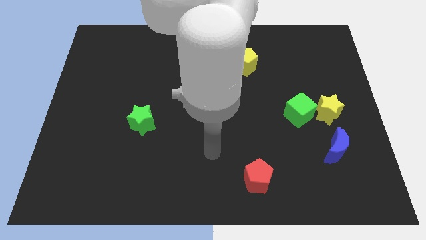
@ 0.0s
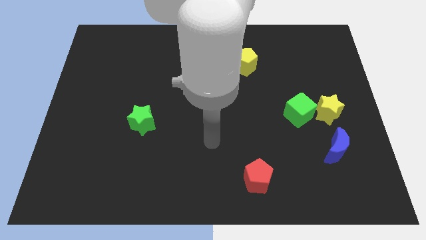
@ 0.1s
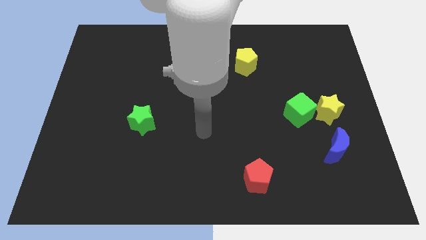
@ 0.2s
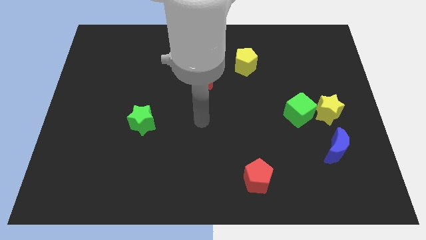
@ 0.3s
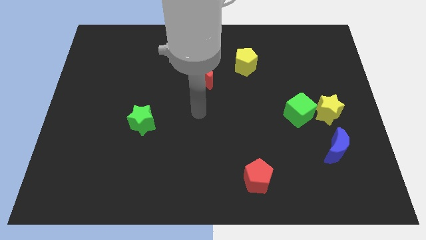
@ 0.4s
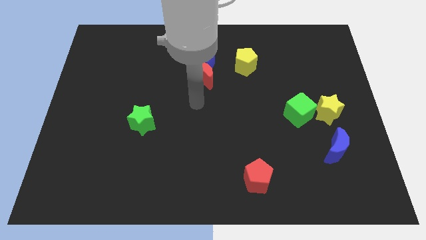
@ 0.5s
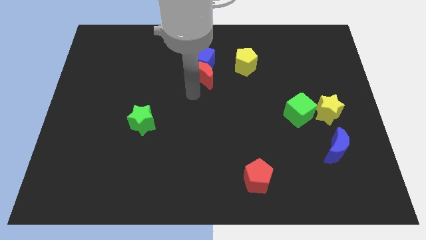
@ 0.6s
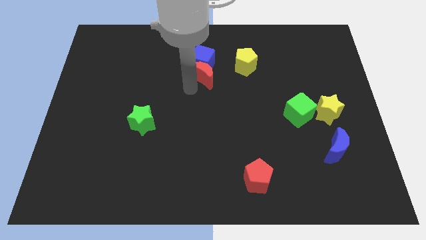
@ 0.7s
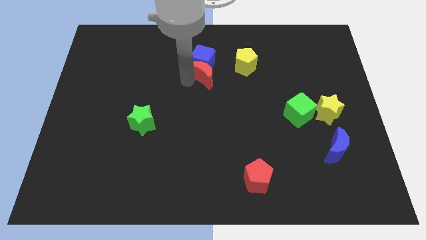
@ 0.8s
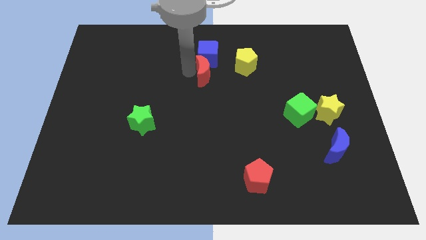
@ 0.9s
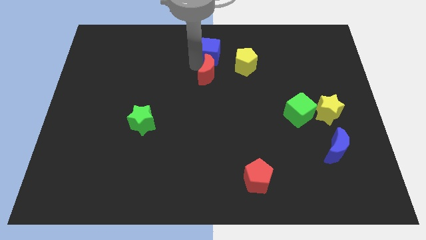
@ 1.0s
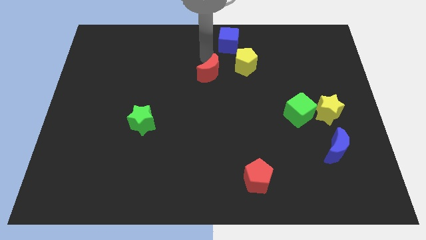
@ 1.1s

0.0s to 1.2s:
pull the red moon apart from the blue cube

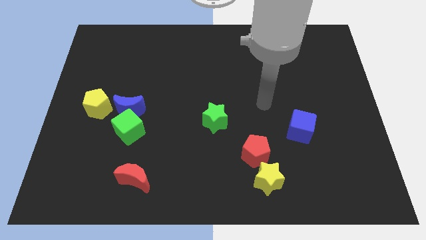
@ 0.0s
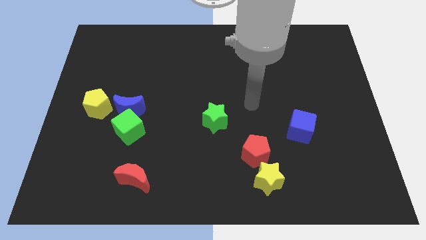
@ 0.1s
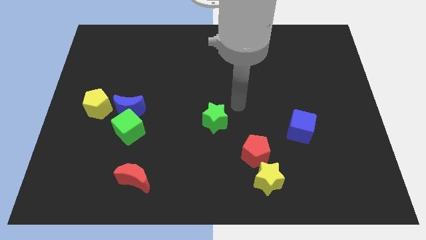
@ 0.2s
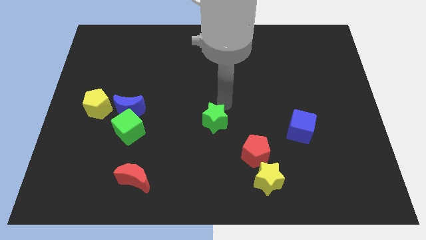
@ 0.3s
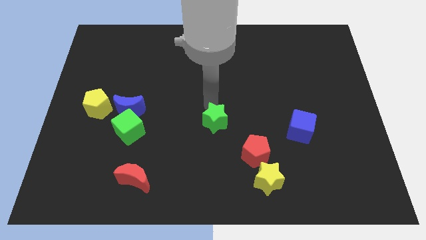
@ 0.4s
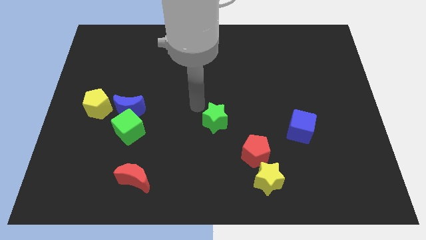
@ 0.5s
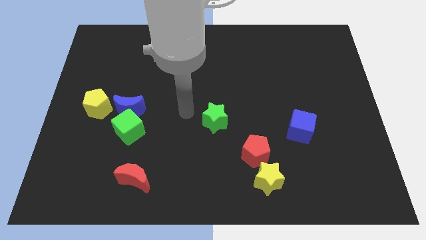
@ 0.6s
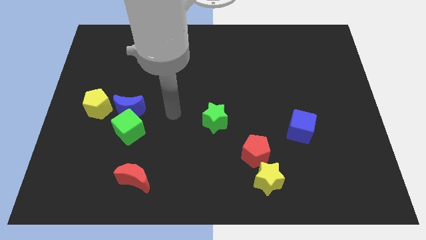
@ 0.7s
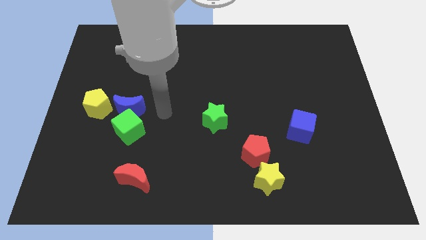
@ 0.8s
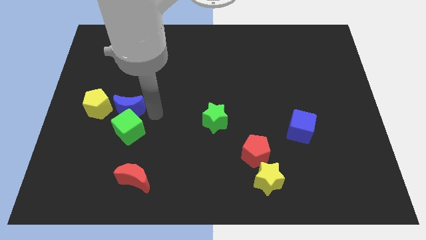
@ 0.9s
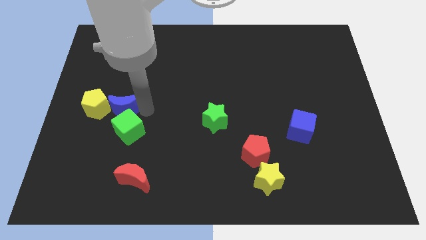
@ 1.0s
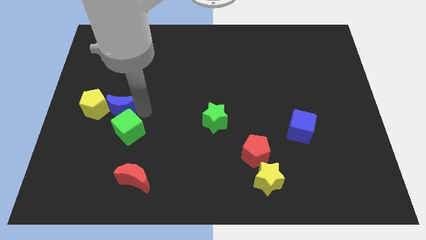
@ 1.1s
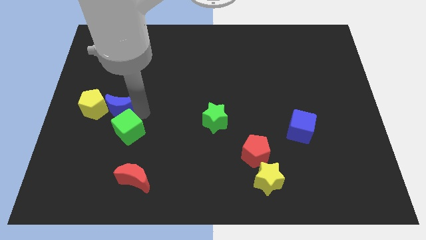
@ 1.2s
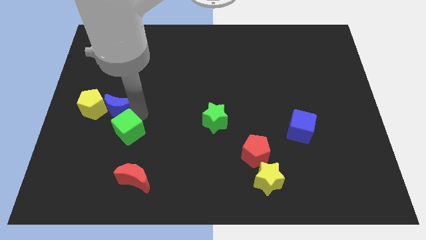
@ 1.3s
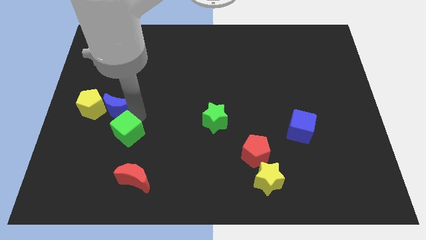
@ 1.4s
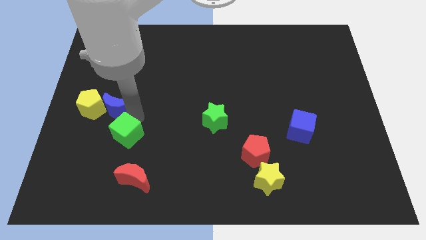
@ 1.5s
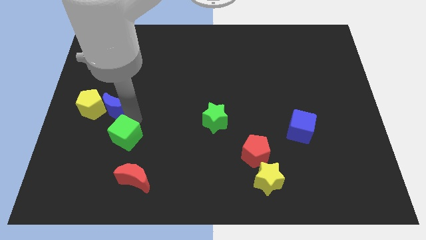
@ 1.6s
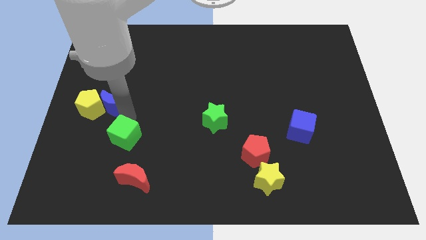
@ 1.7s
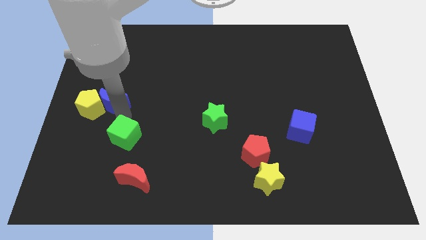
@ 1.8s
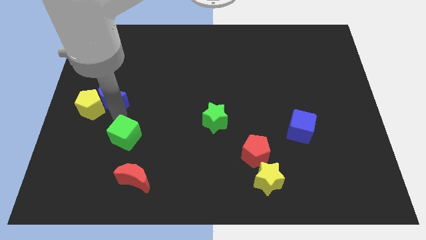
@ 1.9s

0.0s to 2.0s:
move the green cube away from the blue moon

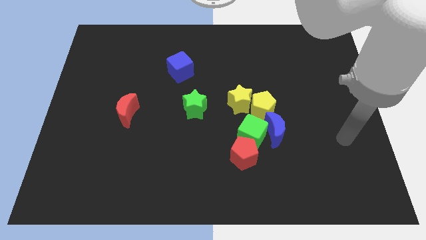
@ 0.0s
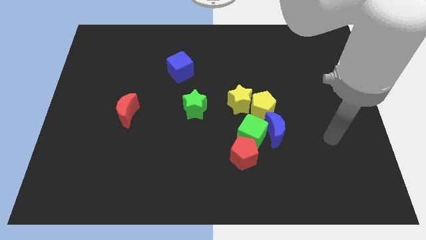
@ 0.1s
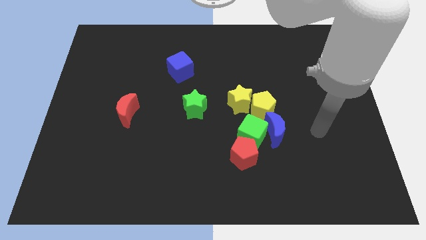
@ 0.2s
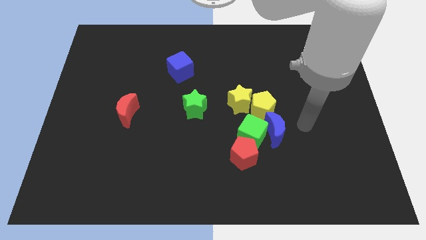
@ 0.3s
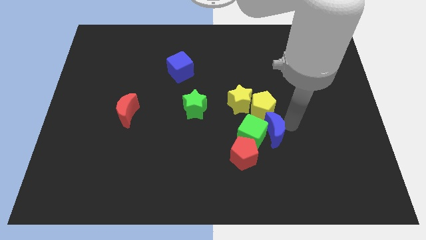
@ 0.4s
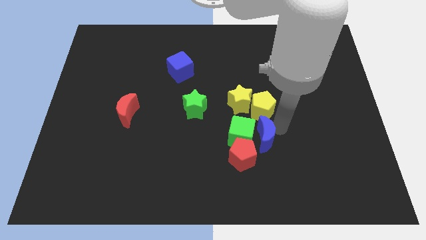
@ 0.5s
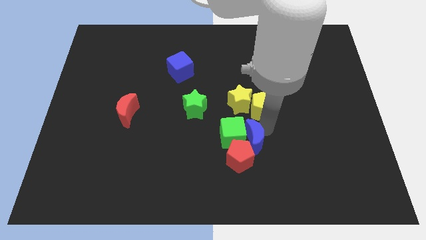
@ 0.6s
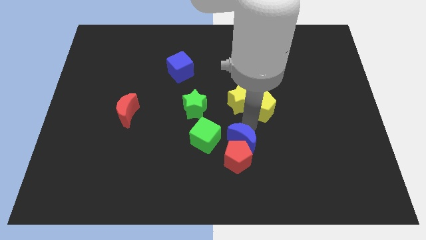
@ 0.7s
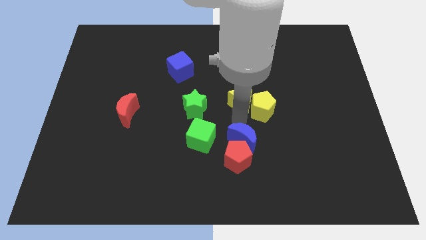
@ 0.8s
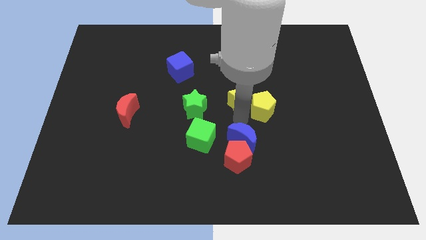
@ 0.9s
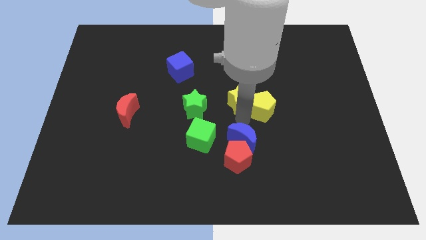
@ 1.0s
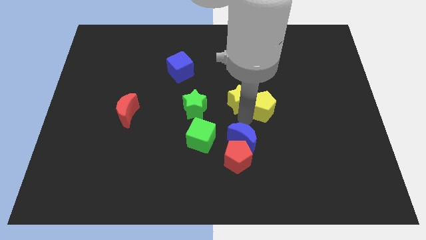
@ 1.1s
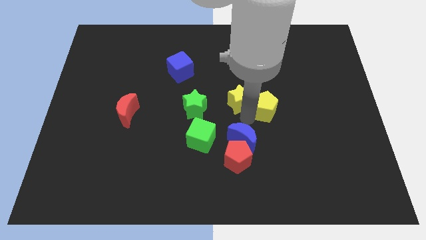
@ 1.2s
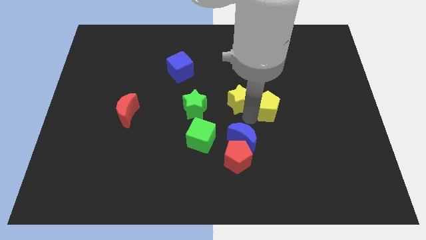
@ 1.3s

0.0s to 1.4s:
pull the yellow pentagon apart from the group

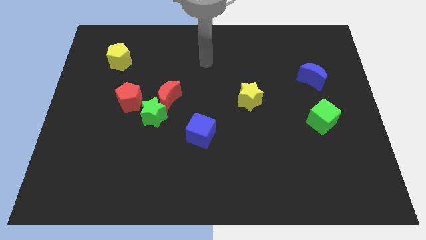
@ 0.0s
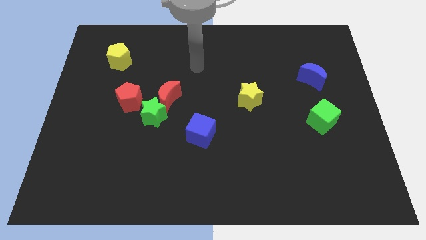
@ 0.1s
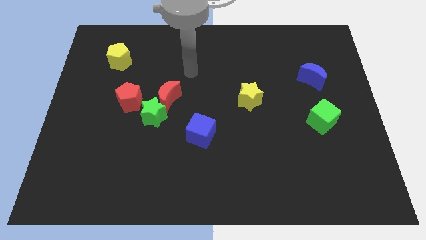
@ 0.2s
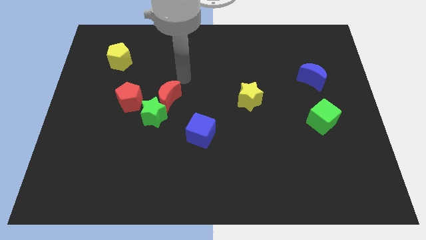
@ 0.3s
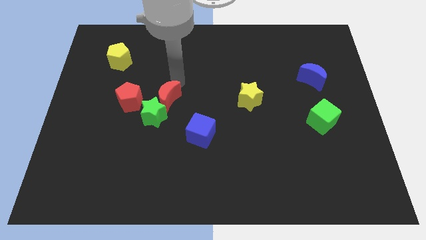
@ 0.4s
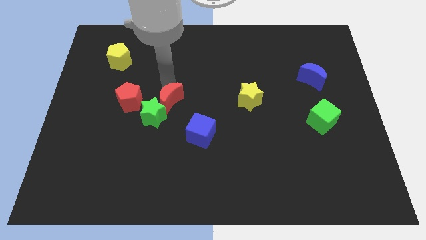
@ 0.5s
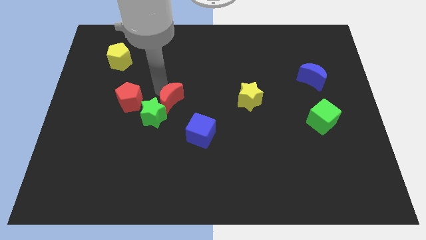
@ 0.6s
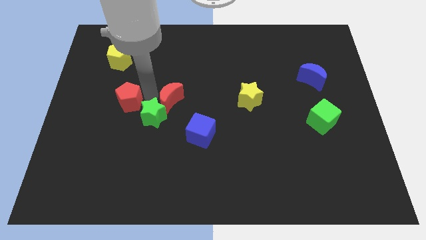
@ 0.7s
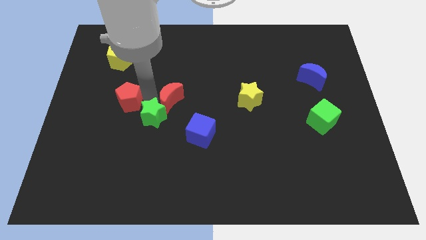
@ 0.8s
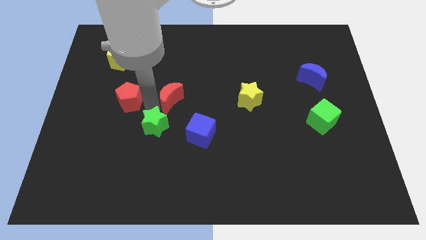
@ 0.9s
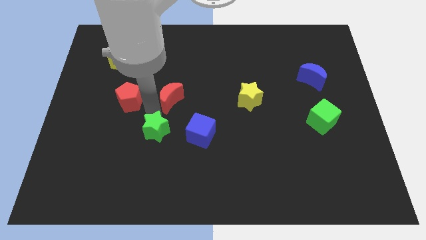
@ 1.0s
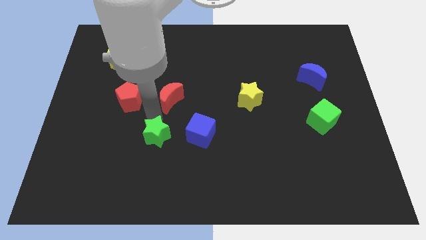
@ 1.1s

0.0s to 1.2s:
separate the green star from the red moon and red pentagon

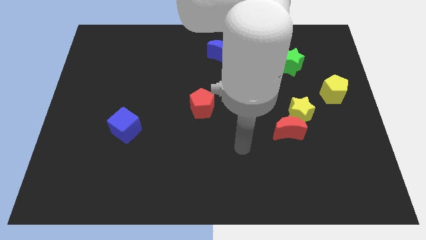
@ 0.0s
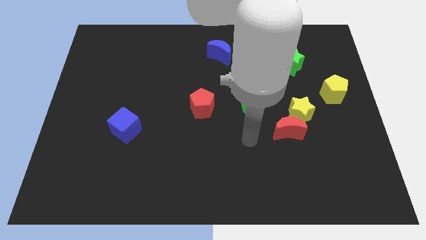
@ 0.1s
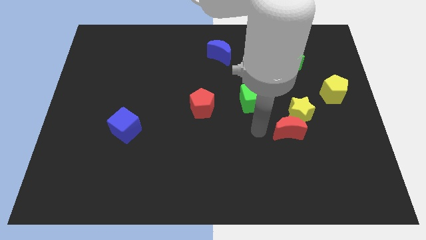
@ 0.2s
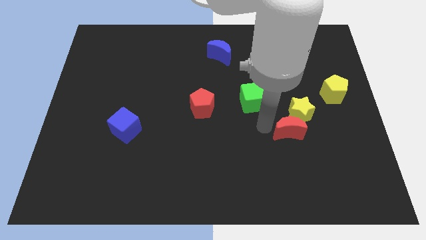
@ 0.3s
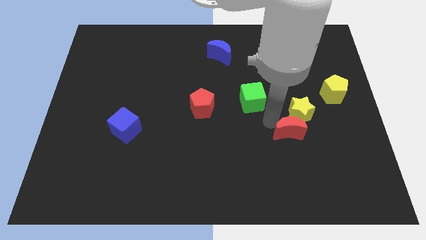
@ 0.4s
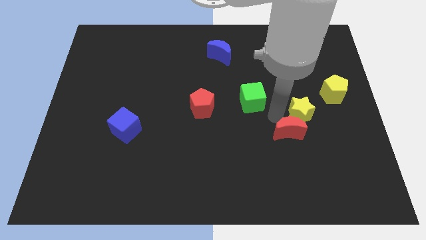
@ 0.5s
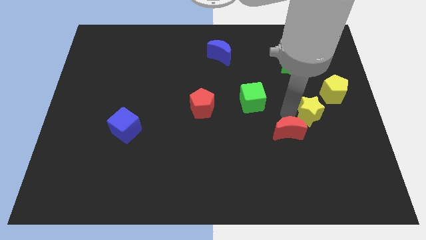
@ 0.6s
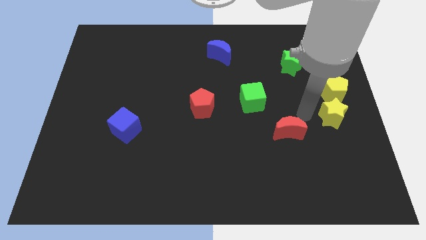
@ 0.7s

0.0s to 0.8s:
separate the red moon from the yellow star

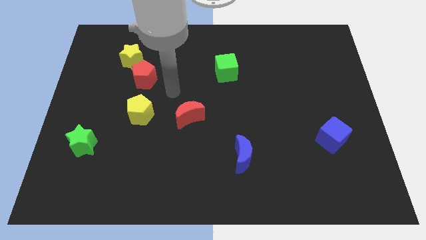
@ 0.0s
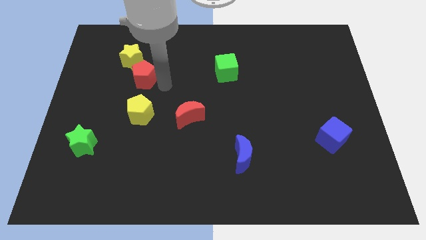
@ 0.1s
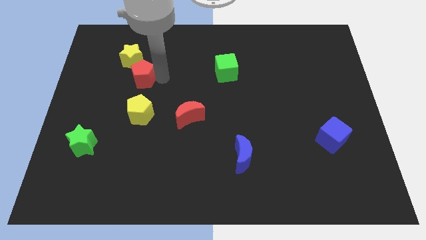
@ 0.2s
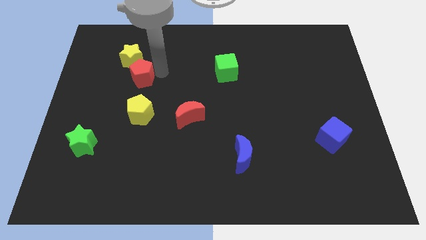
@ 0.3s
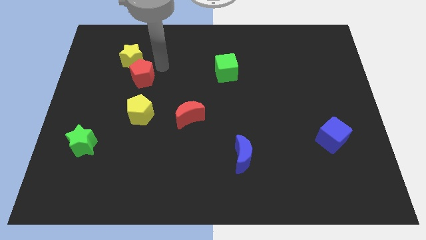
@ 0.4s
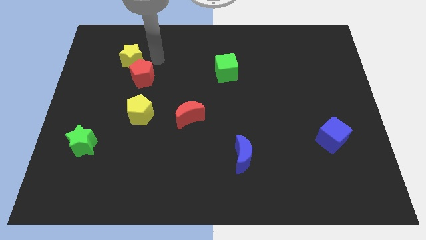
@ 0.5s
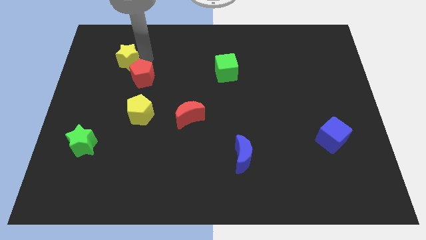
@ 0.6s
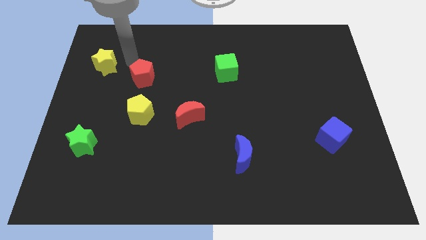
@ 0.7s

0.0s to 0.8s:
separate the red pentagon from the yellow star

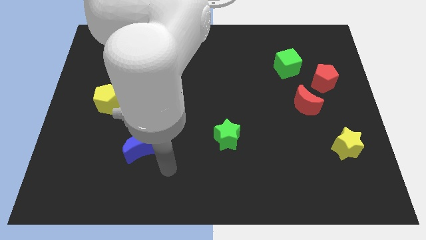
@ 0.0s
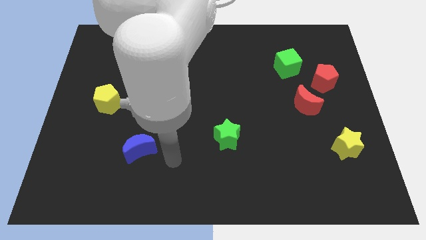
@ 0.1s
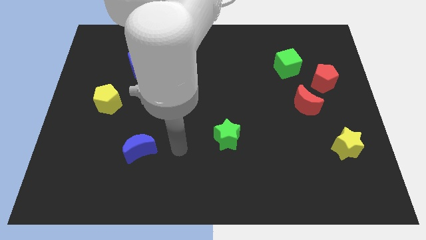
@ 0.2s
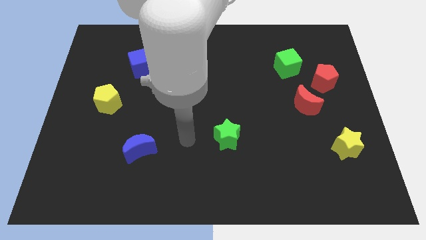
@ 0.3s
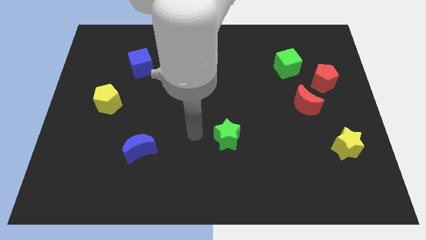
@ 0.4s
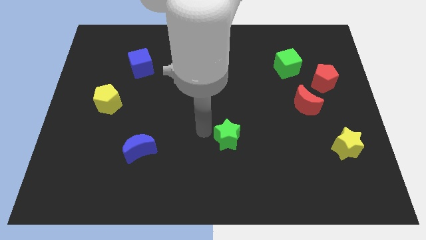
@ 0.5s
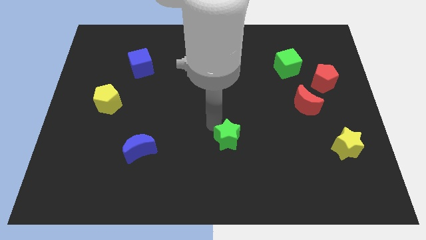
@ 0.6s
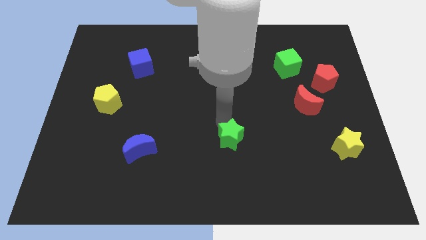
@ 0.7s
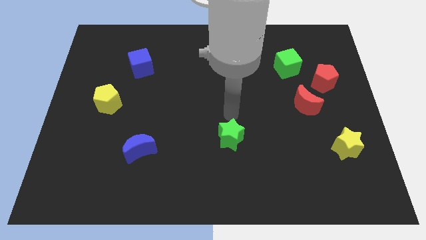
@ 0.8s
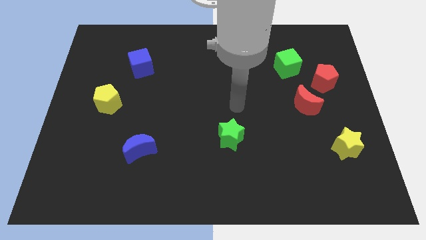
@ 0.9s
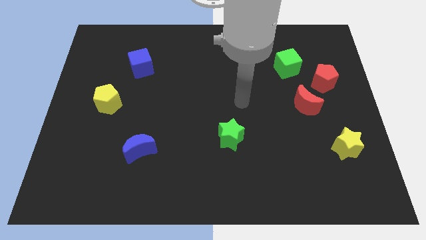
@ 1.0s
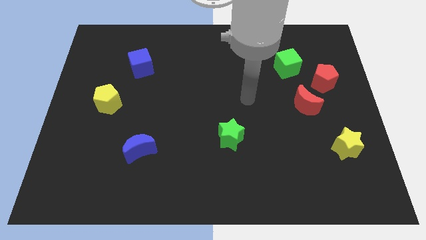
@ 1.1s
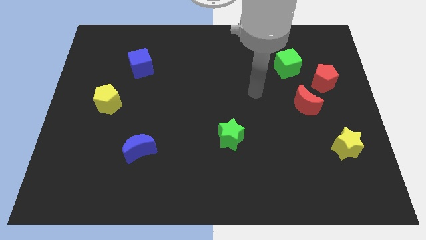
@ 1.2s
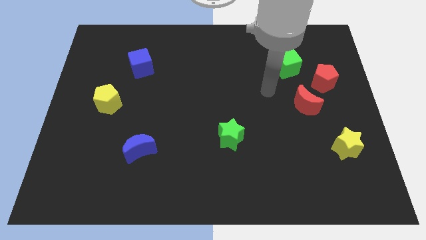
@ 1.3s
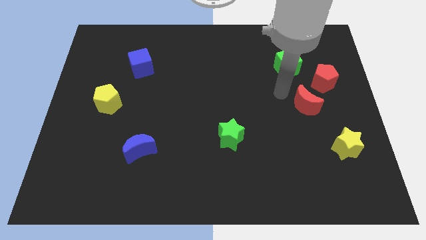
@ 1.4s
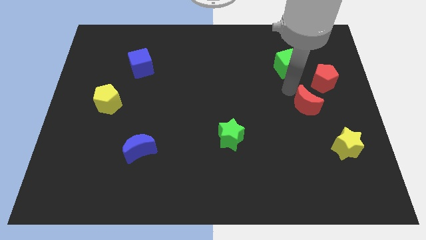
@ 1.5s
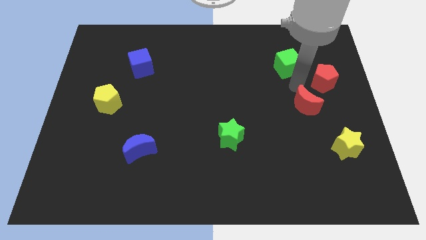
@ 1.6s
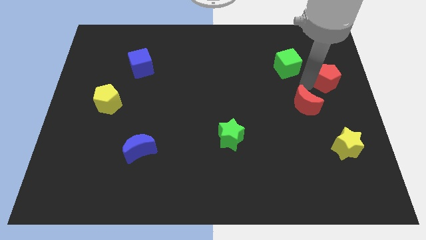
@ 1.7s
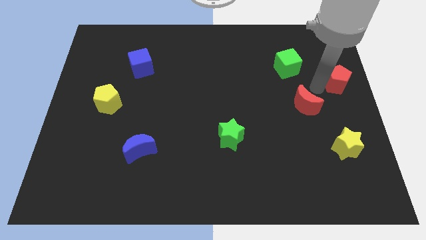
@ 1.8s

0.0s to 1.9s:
move the red moon away from the red pentagon

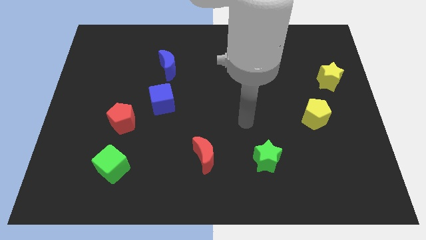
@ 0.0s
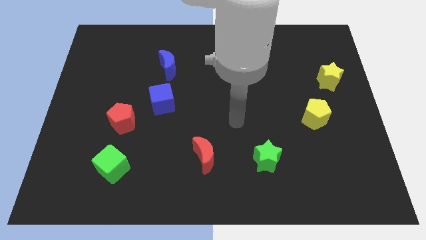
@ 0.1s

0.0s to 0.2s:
pull the red pentagon apart from the blue cube

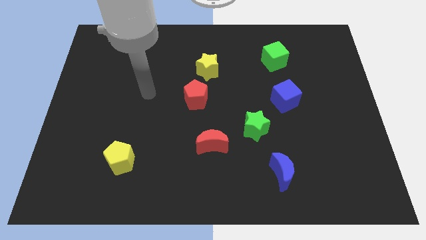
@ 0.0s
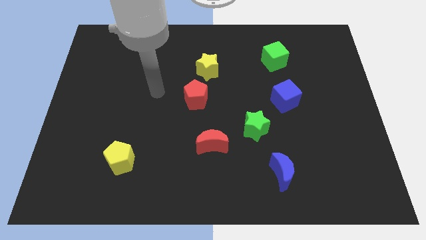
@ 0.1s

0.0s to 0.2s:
pull the red pentagon apart from the yellow star
